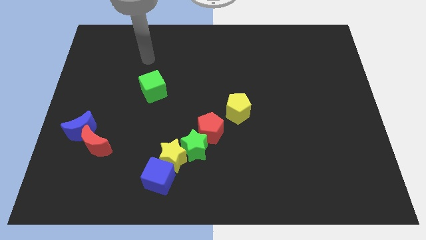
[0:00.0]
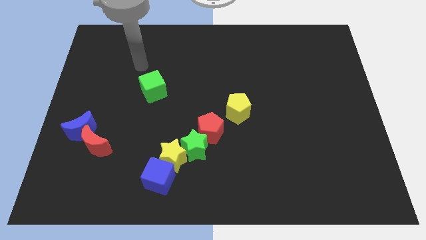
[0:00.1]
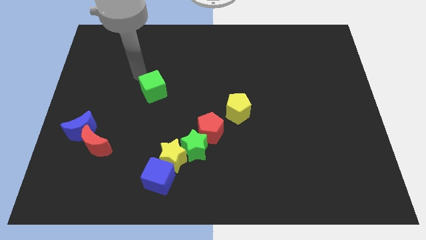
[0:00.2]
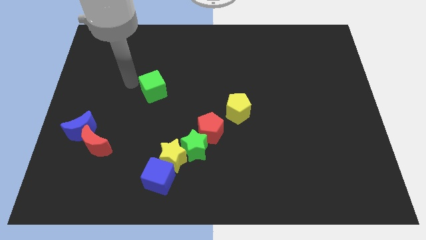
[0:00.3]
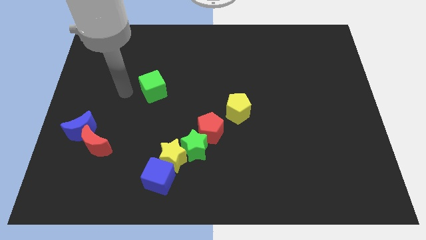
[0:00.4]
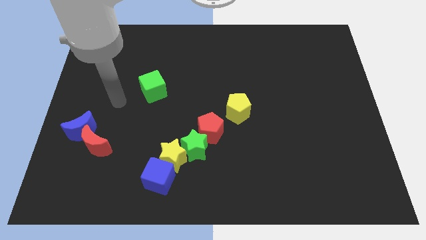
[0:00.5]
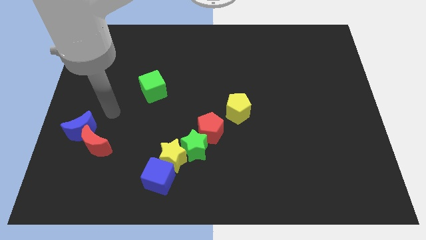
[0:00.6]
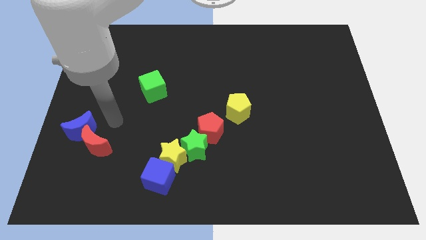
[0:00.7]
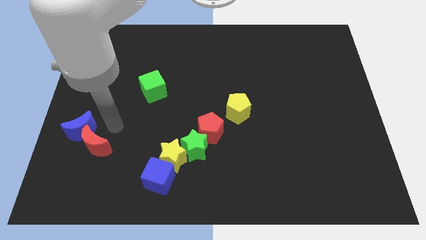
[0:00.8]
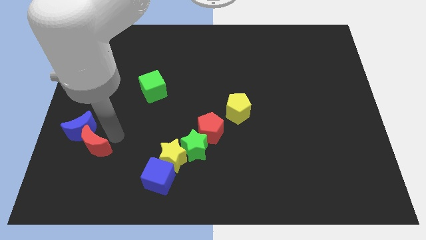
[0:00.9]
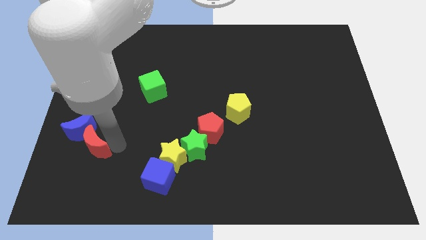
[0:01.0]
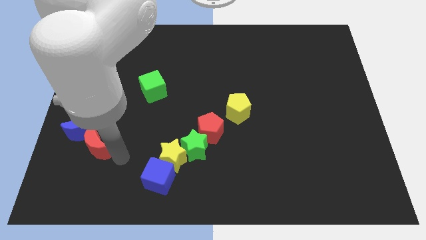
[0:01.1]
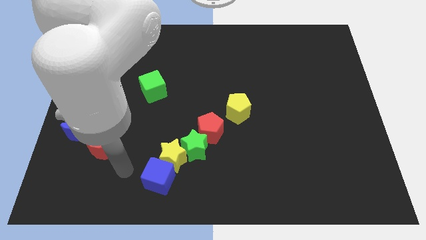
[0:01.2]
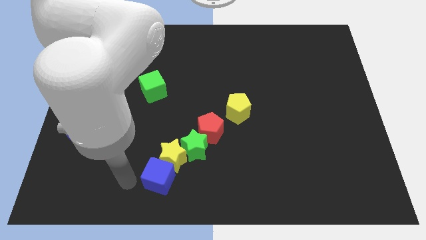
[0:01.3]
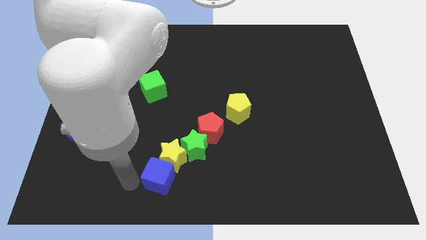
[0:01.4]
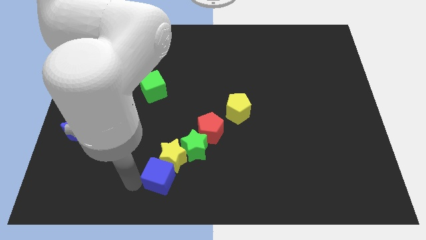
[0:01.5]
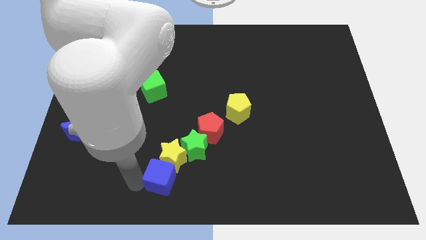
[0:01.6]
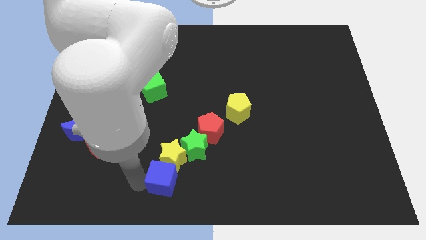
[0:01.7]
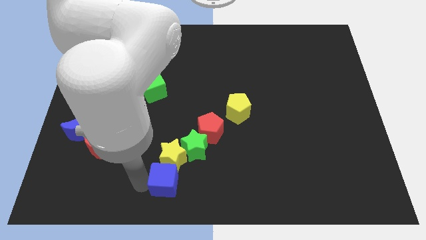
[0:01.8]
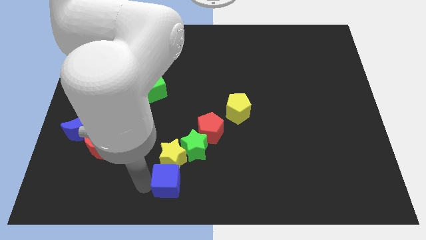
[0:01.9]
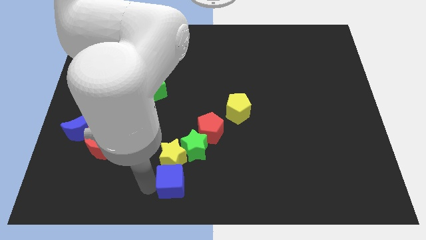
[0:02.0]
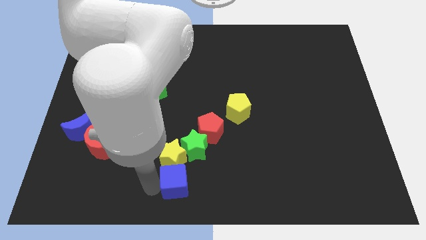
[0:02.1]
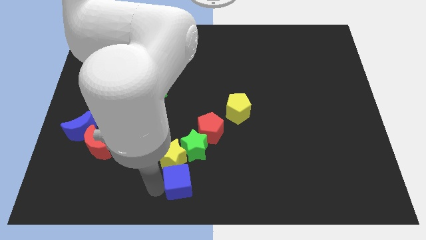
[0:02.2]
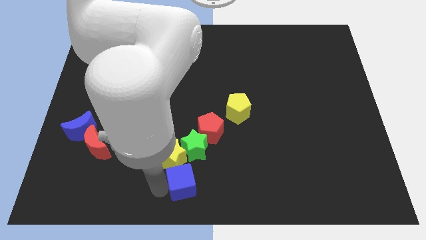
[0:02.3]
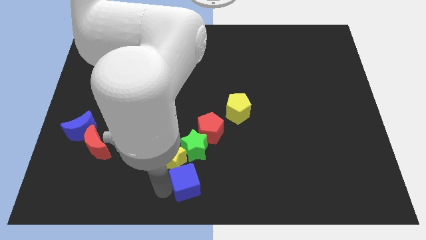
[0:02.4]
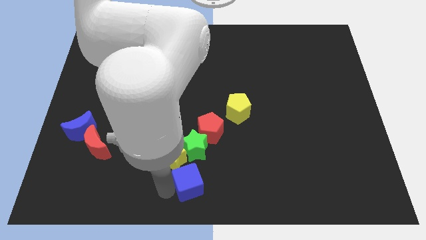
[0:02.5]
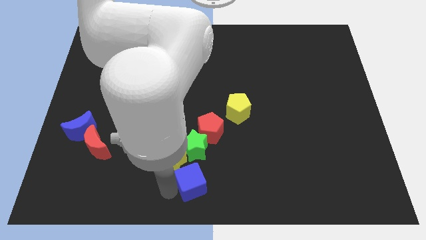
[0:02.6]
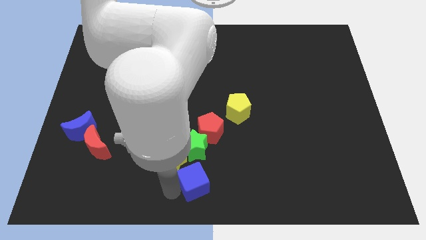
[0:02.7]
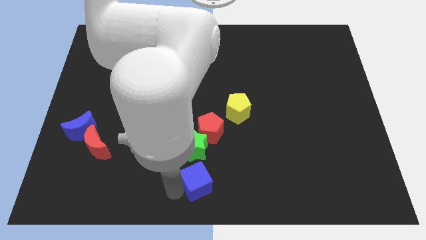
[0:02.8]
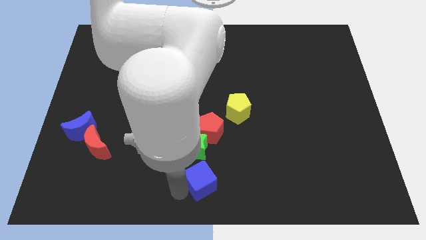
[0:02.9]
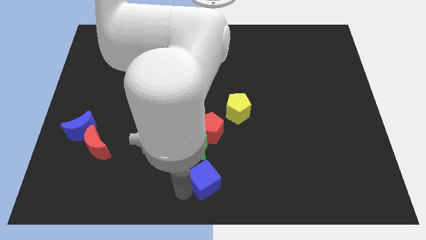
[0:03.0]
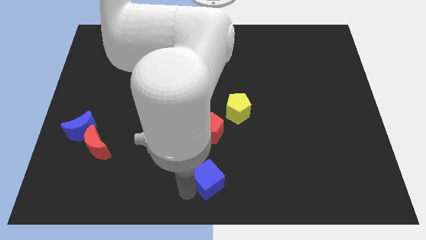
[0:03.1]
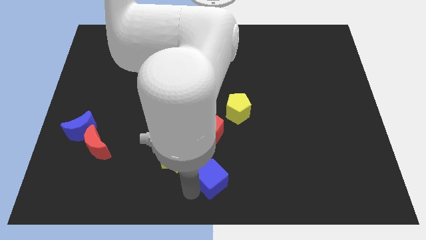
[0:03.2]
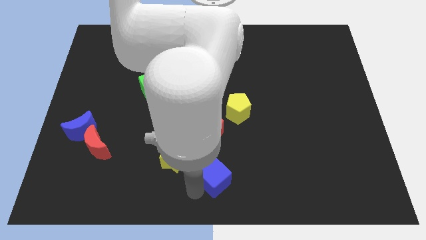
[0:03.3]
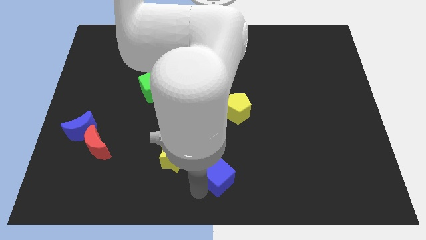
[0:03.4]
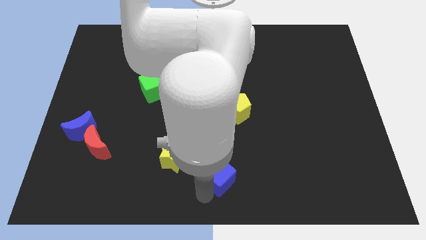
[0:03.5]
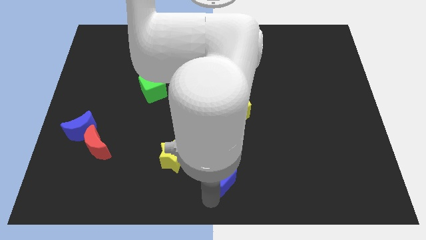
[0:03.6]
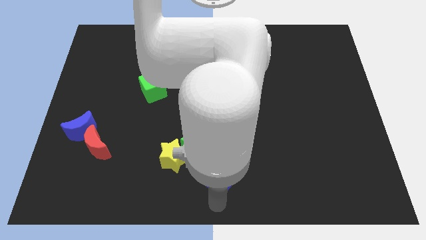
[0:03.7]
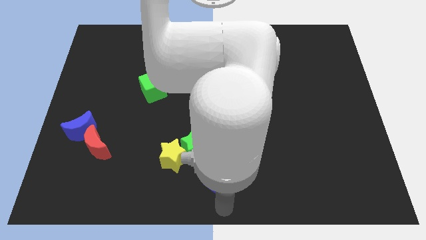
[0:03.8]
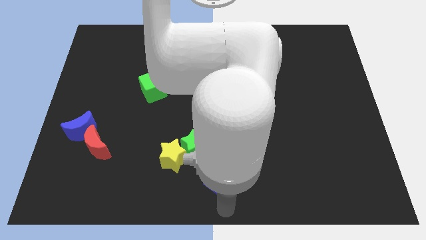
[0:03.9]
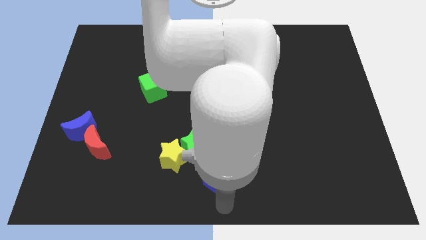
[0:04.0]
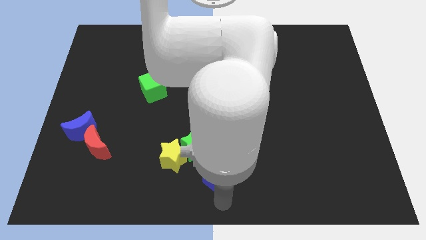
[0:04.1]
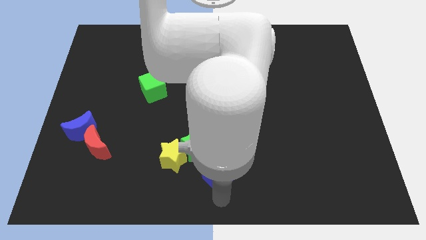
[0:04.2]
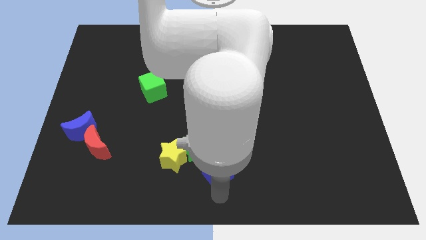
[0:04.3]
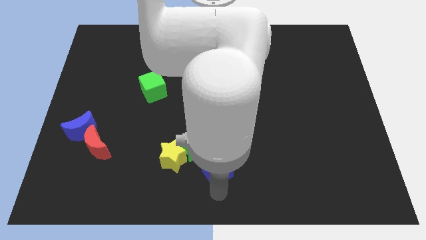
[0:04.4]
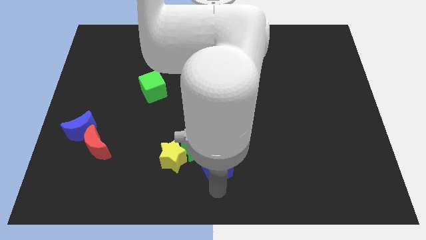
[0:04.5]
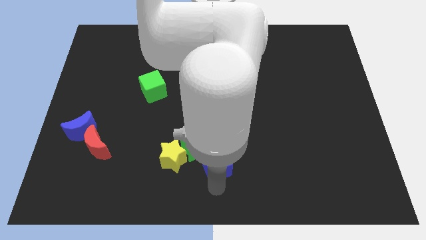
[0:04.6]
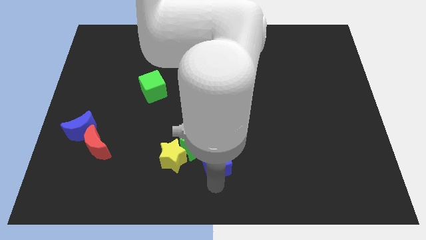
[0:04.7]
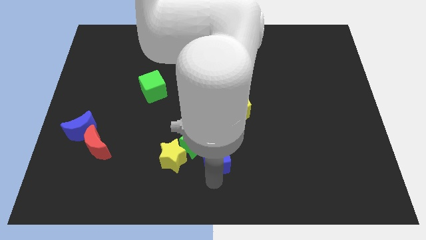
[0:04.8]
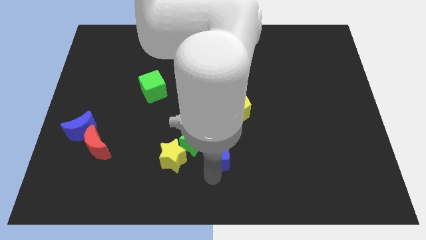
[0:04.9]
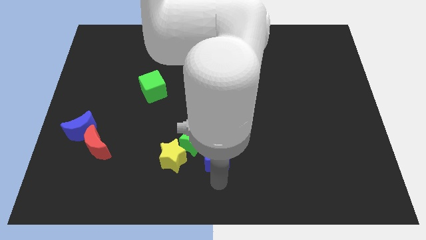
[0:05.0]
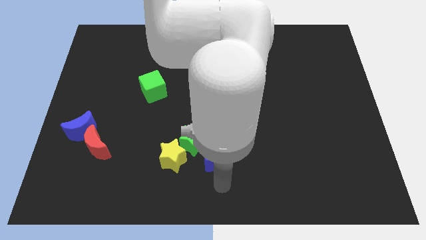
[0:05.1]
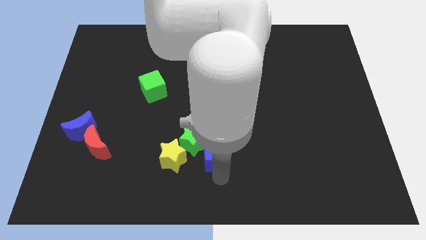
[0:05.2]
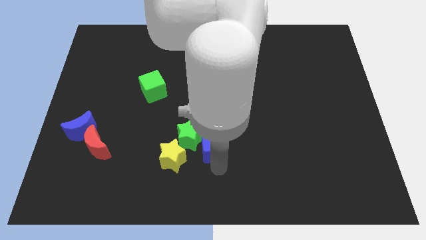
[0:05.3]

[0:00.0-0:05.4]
slide the blue cube to the red pentagon
